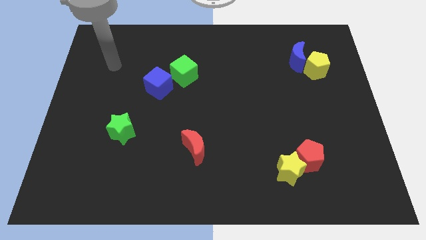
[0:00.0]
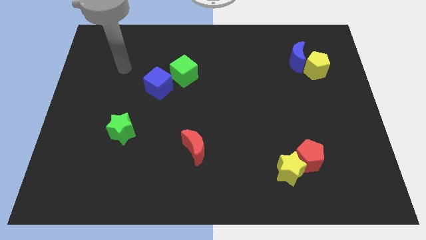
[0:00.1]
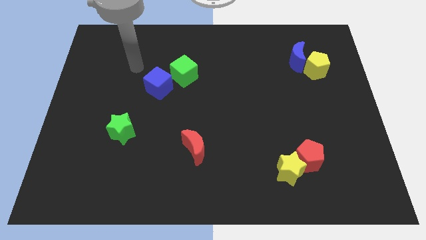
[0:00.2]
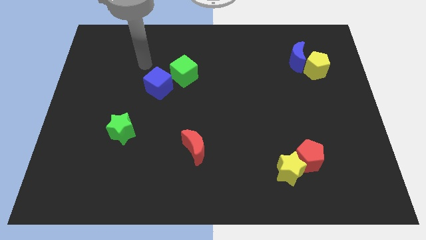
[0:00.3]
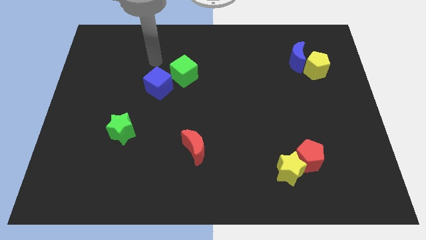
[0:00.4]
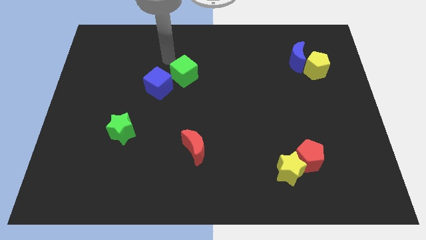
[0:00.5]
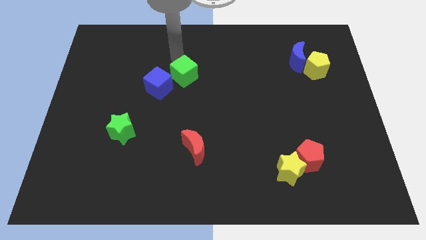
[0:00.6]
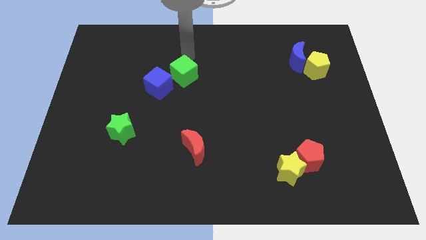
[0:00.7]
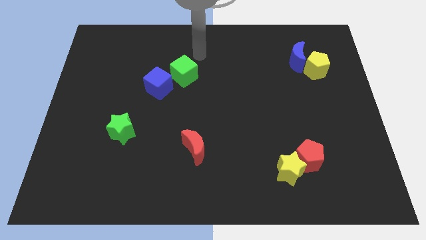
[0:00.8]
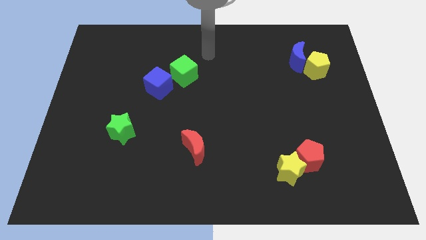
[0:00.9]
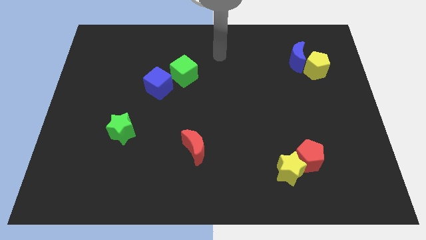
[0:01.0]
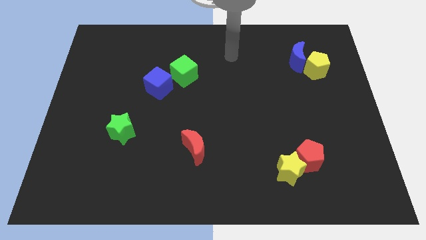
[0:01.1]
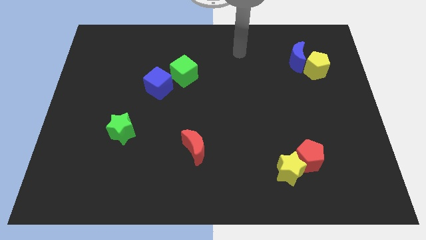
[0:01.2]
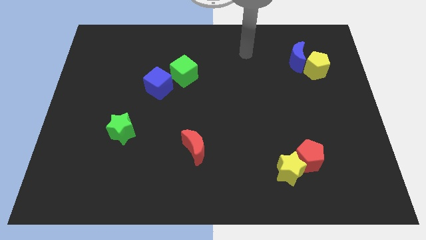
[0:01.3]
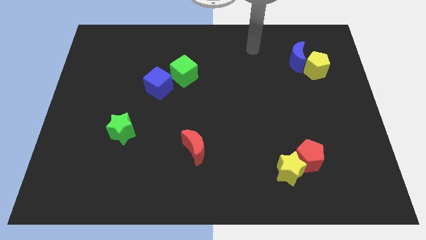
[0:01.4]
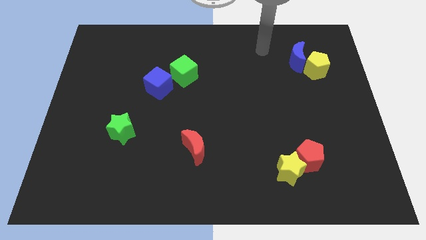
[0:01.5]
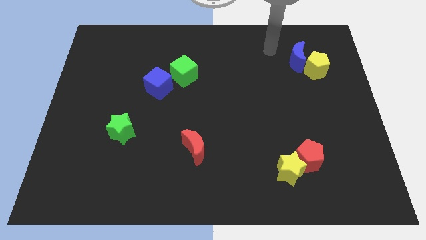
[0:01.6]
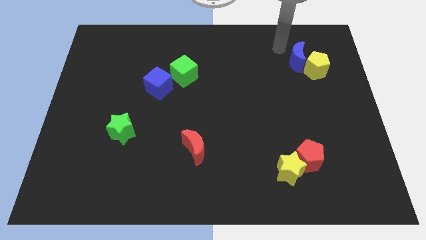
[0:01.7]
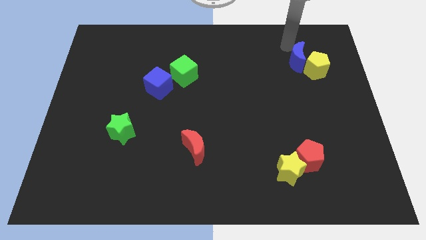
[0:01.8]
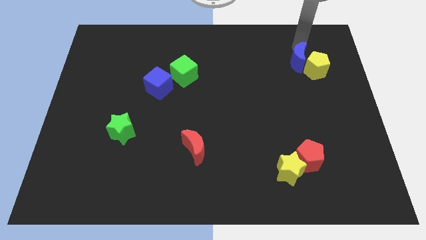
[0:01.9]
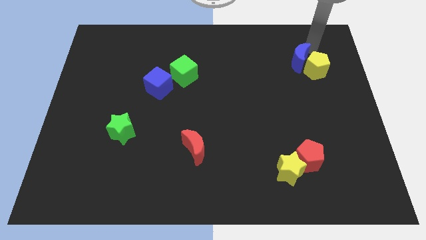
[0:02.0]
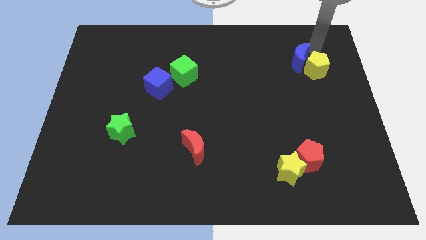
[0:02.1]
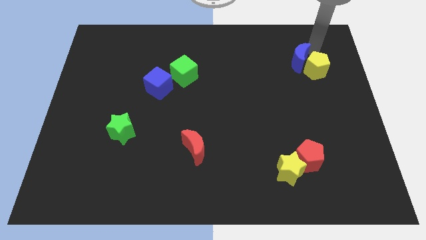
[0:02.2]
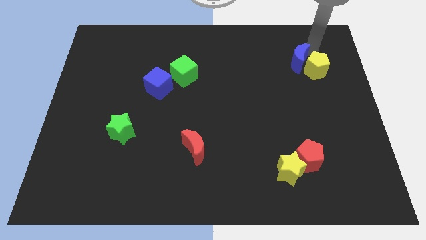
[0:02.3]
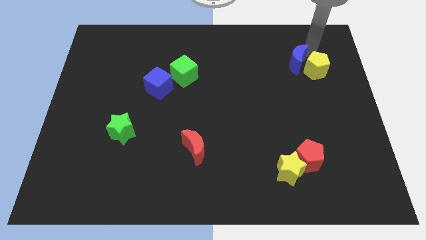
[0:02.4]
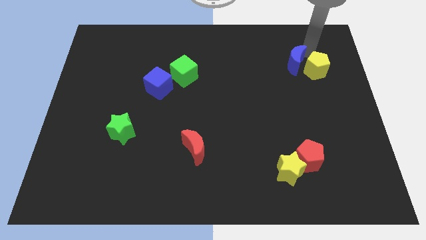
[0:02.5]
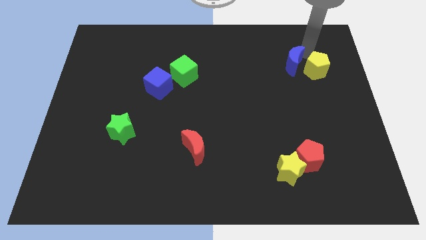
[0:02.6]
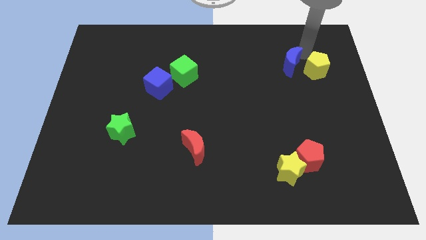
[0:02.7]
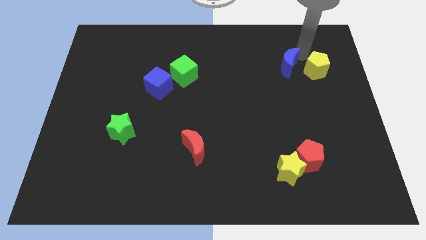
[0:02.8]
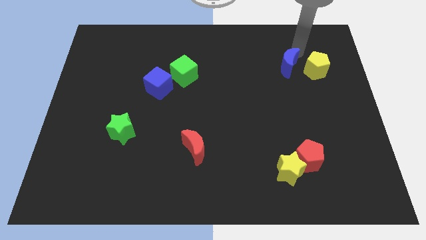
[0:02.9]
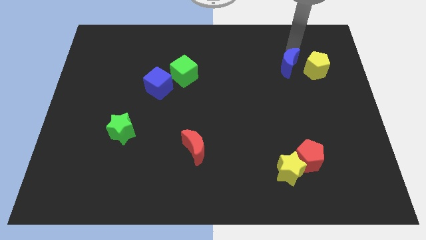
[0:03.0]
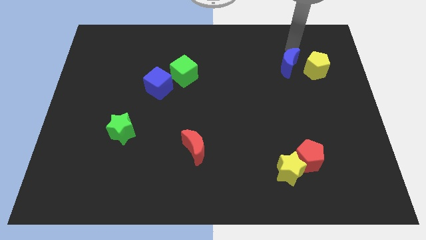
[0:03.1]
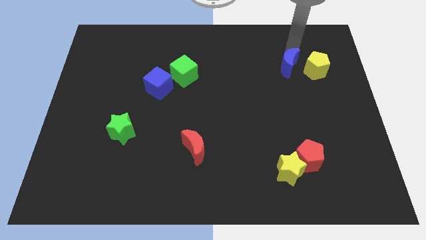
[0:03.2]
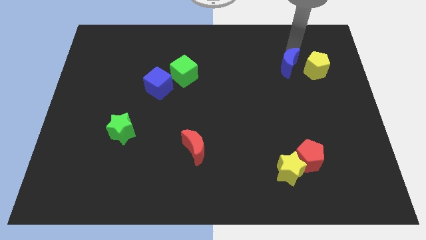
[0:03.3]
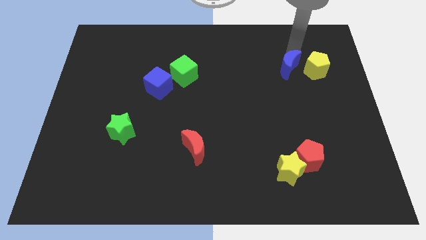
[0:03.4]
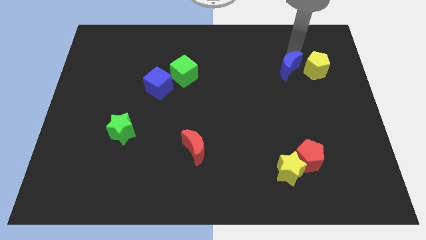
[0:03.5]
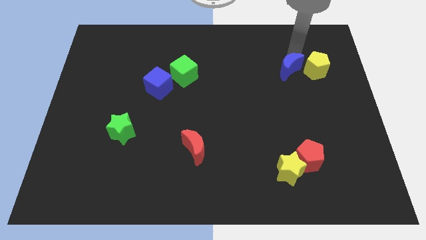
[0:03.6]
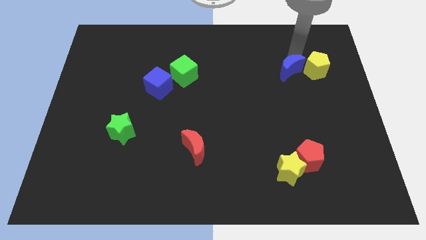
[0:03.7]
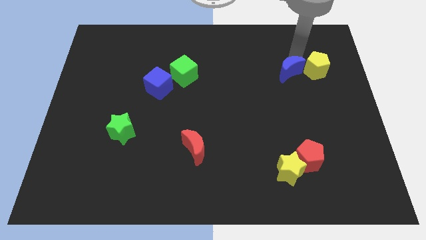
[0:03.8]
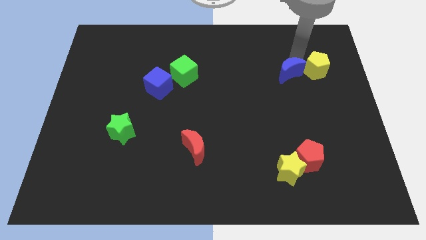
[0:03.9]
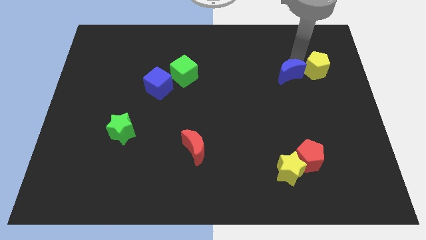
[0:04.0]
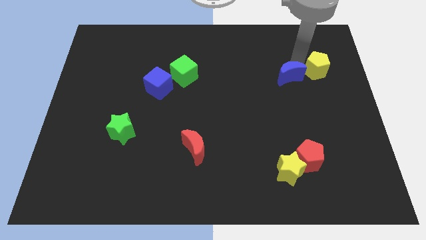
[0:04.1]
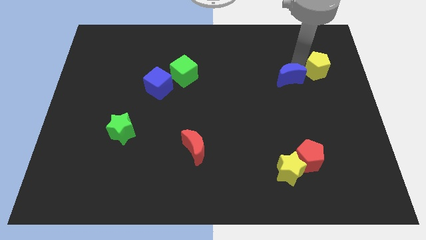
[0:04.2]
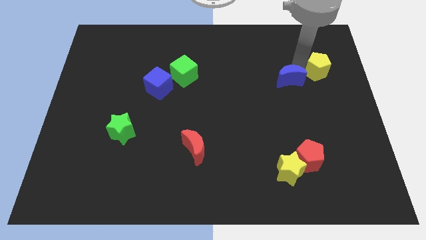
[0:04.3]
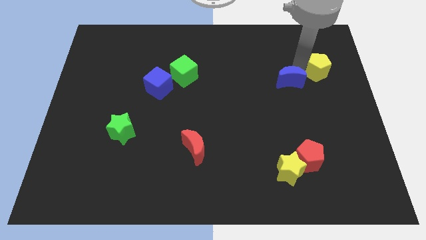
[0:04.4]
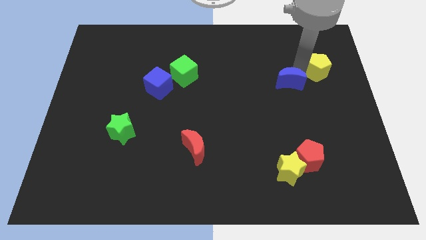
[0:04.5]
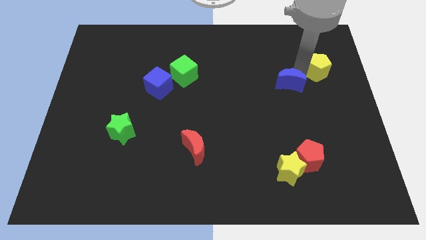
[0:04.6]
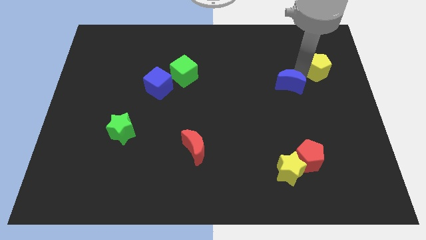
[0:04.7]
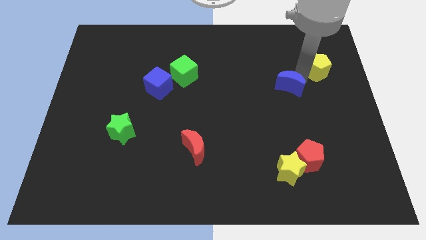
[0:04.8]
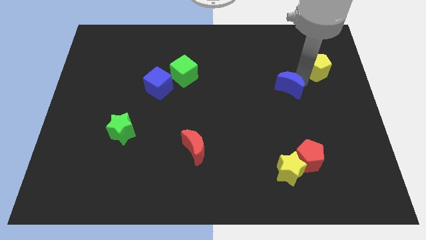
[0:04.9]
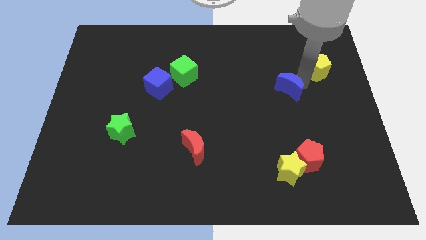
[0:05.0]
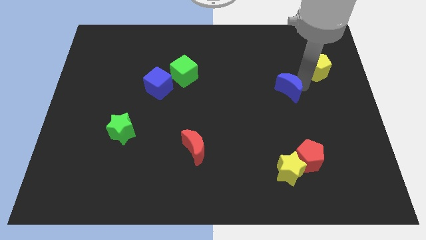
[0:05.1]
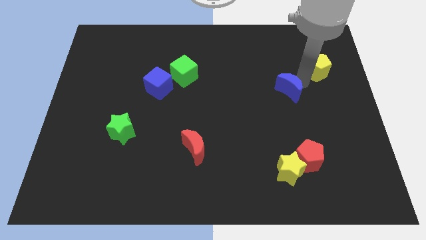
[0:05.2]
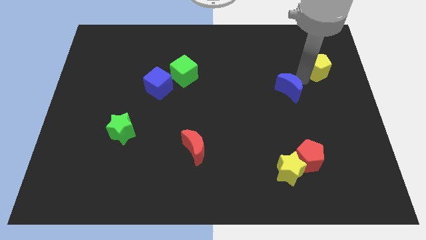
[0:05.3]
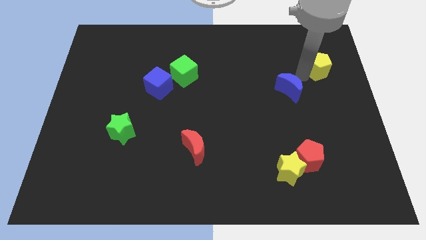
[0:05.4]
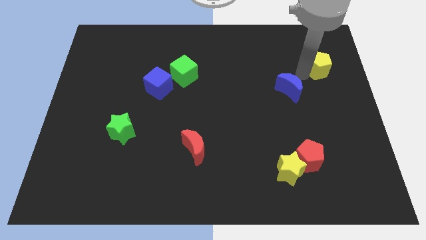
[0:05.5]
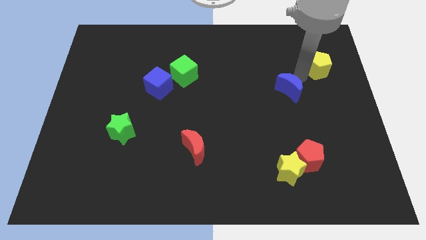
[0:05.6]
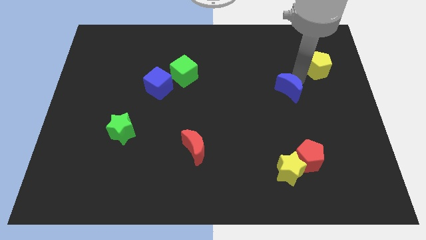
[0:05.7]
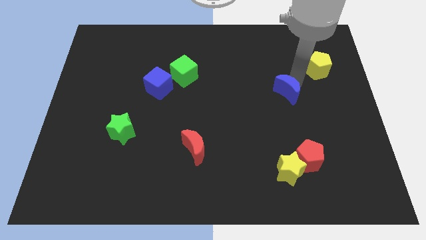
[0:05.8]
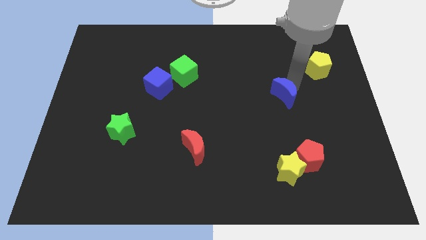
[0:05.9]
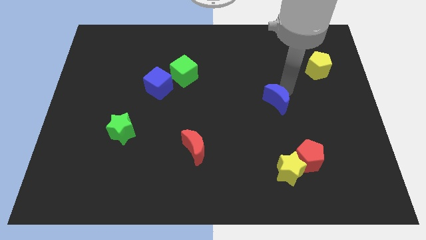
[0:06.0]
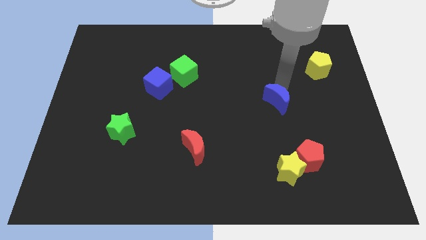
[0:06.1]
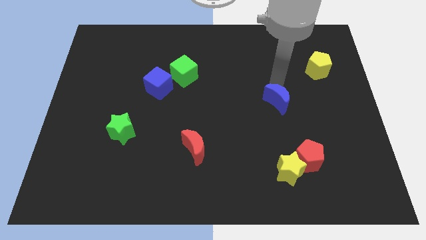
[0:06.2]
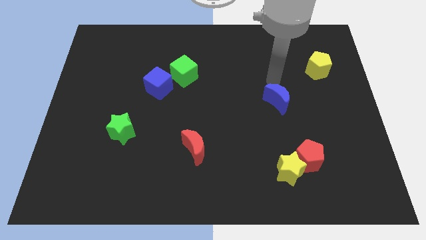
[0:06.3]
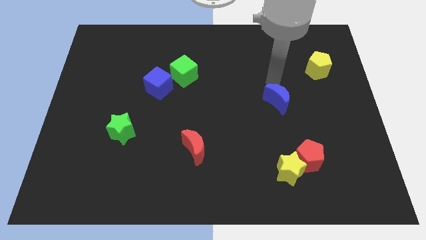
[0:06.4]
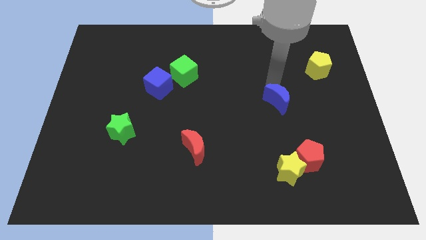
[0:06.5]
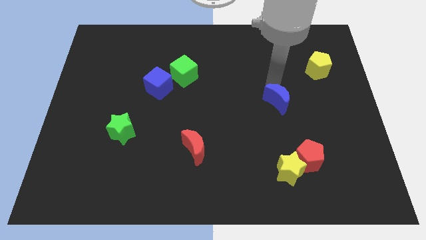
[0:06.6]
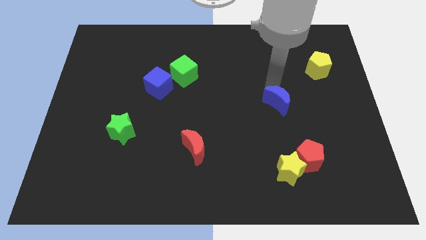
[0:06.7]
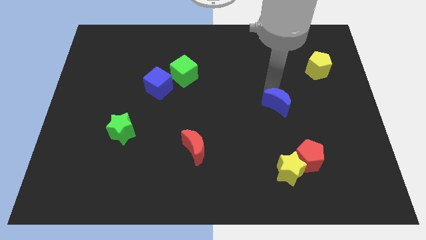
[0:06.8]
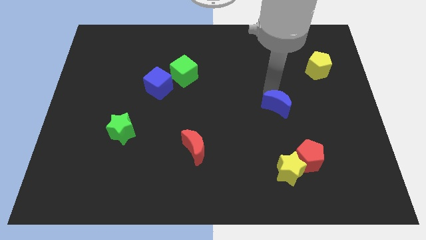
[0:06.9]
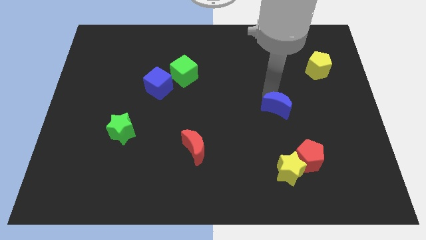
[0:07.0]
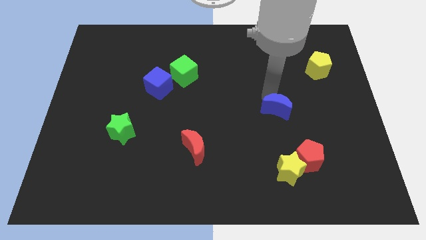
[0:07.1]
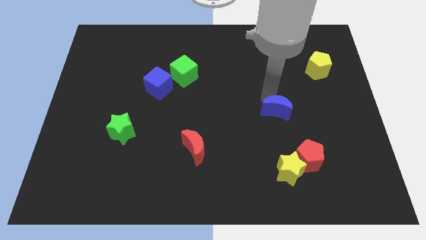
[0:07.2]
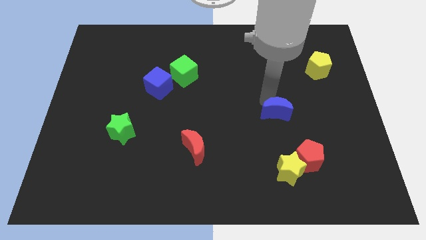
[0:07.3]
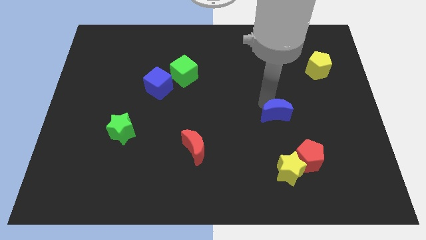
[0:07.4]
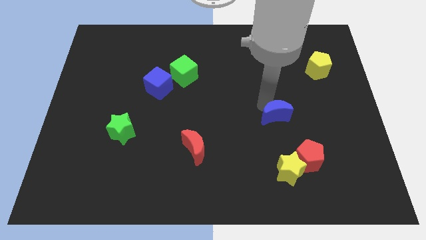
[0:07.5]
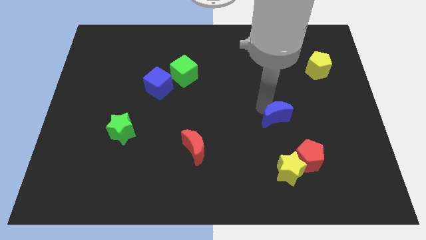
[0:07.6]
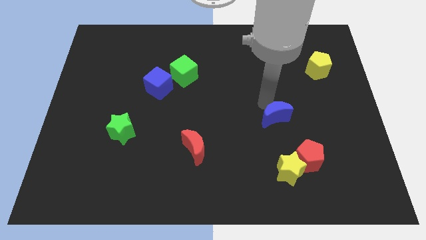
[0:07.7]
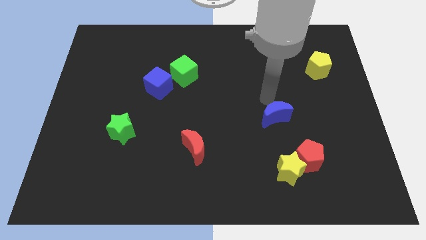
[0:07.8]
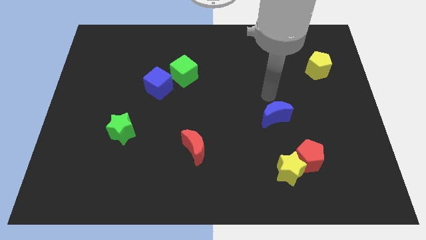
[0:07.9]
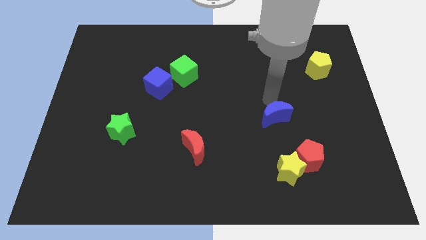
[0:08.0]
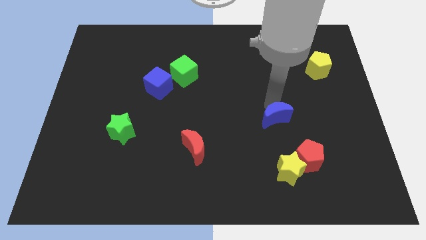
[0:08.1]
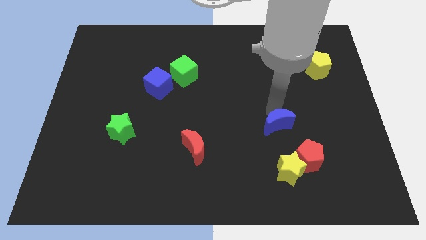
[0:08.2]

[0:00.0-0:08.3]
slide the blue moon diagonally up and to the left of the red pentagon
